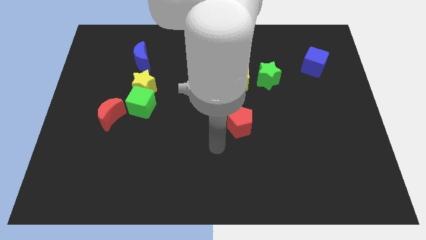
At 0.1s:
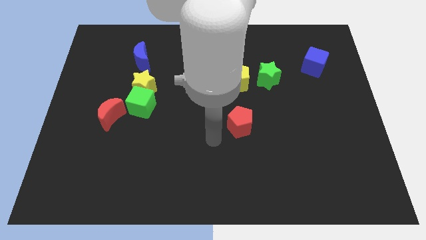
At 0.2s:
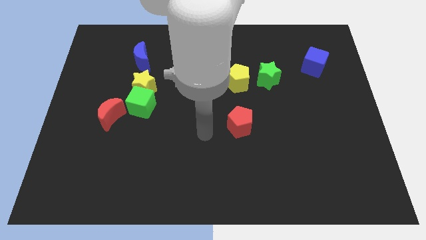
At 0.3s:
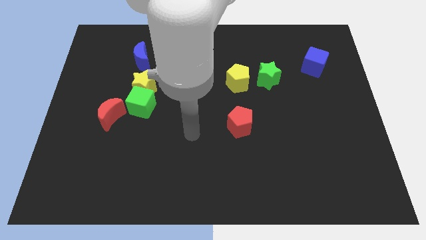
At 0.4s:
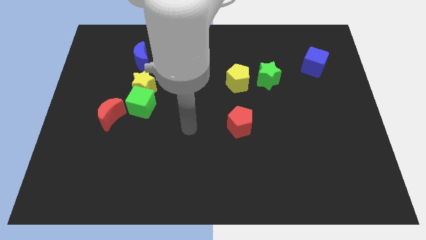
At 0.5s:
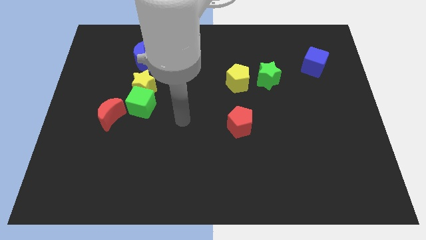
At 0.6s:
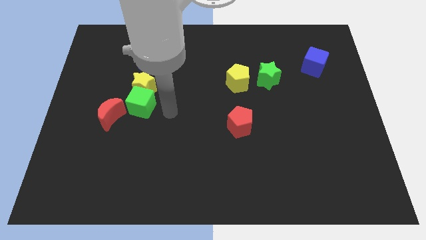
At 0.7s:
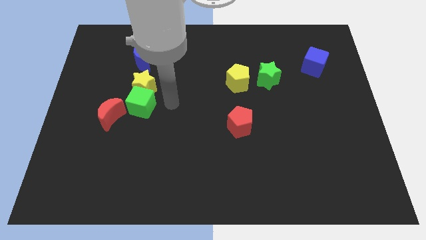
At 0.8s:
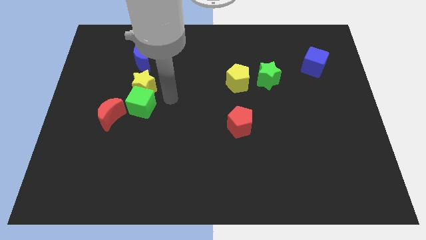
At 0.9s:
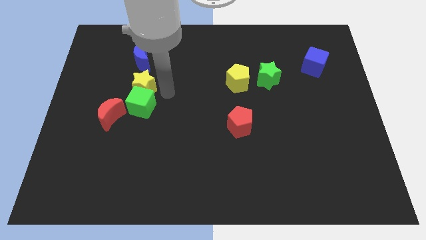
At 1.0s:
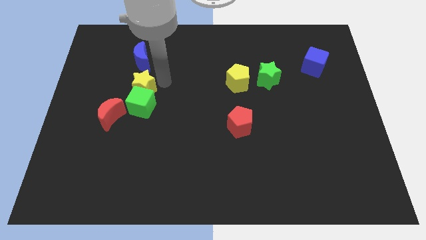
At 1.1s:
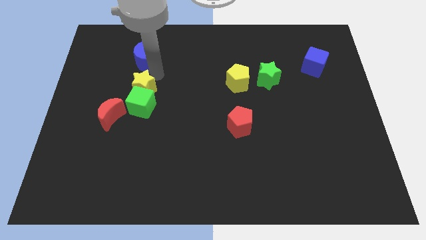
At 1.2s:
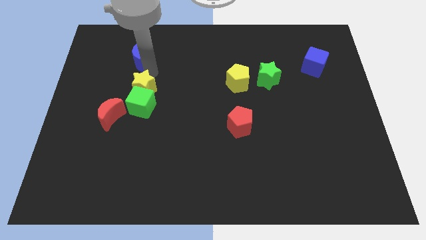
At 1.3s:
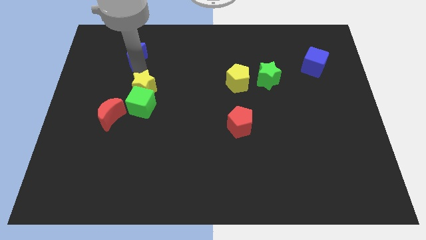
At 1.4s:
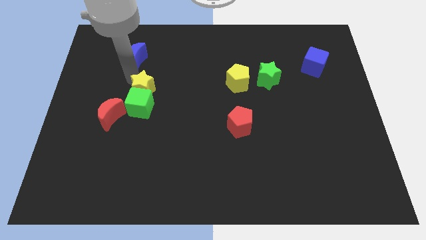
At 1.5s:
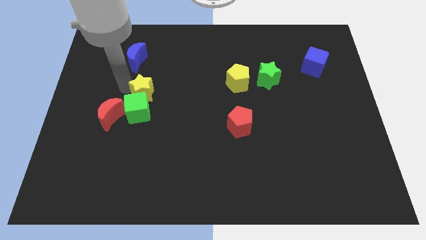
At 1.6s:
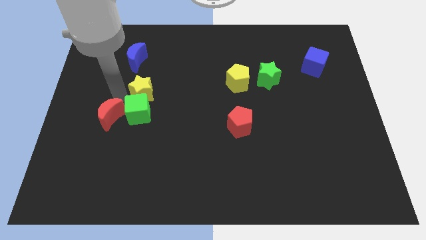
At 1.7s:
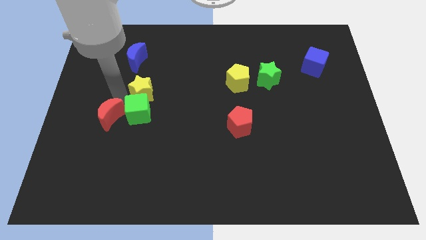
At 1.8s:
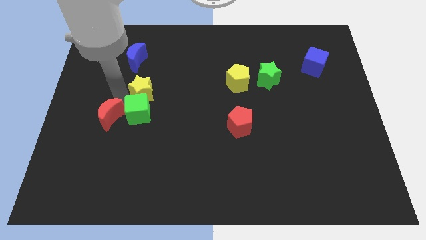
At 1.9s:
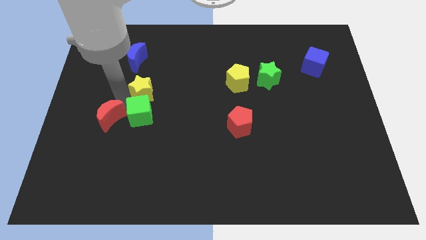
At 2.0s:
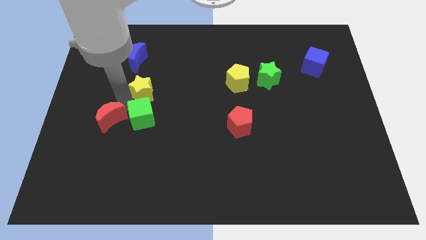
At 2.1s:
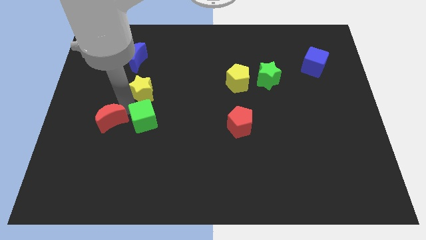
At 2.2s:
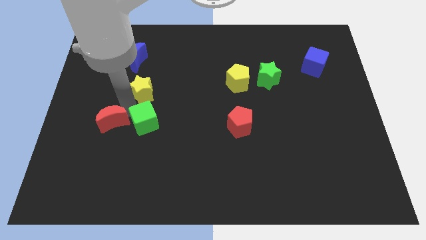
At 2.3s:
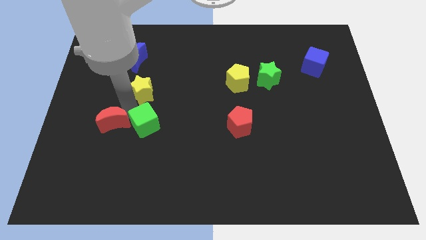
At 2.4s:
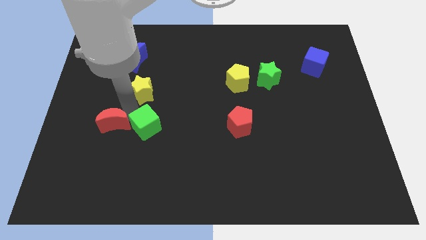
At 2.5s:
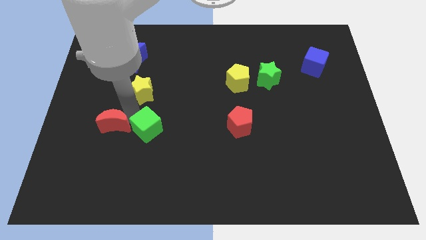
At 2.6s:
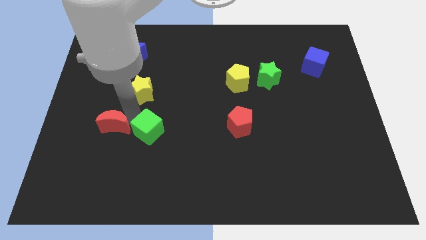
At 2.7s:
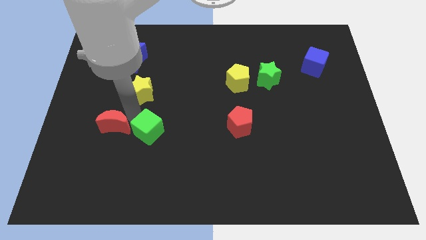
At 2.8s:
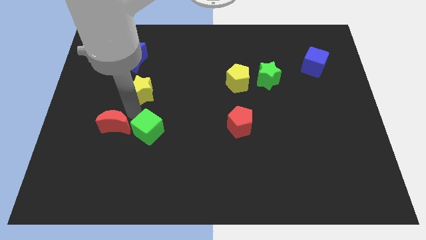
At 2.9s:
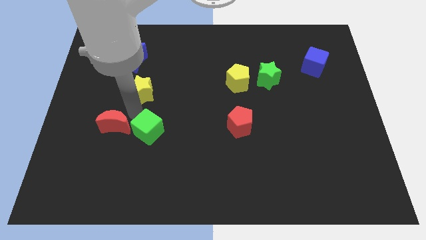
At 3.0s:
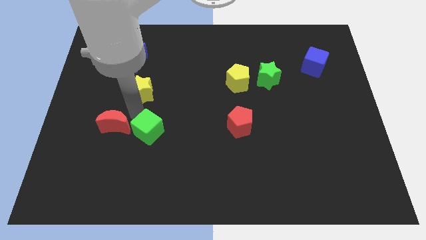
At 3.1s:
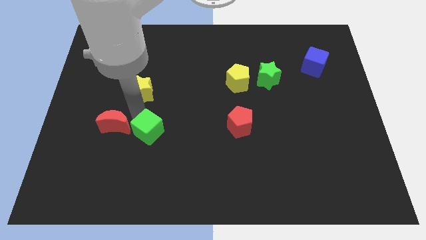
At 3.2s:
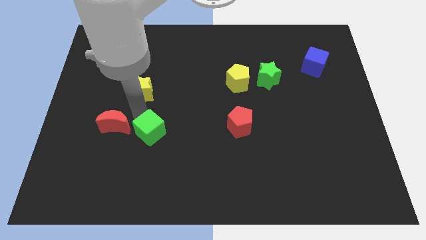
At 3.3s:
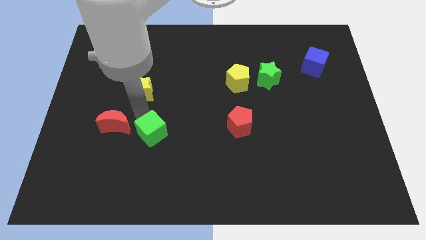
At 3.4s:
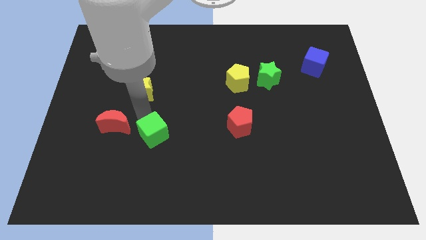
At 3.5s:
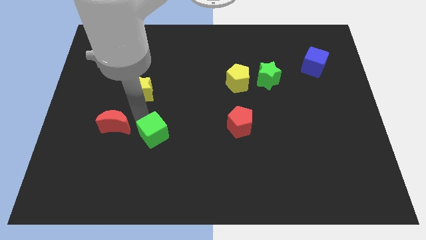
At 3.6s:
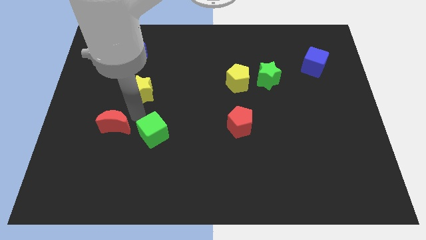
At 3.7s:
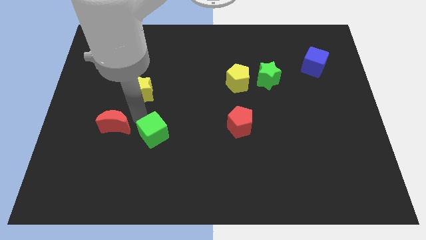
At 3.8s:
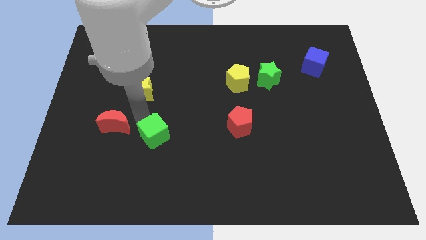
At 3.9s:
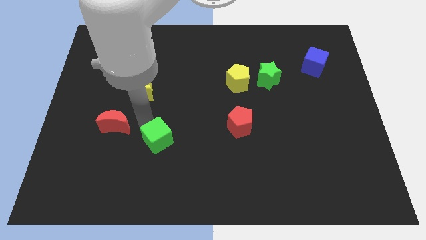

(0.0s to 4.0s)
pull the green cube apart from the yellow star and red moon

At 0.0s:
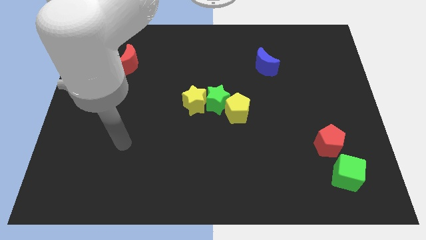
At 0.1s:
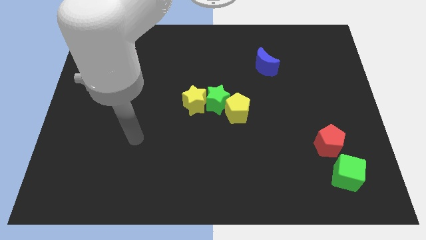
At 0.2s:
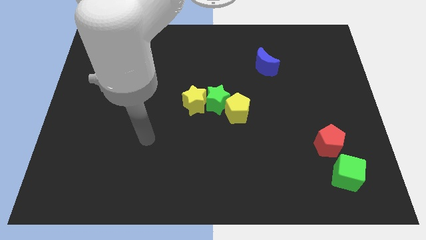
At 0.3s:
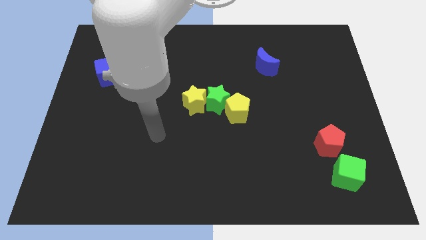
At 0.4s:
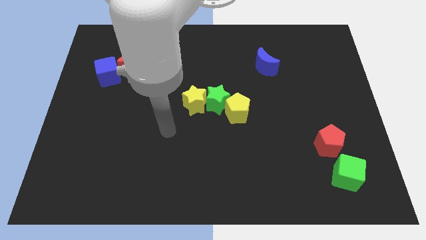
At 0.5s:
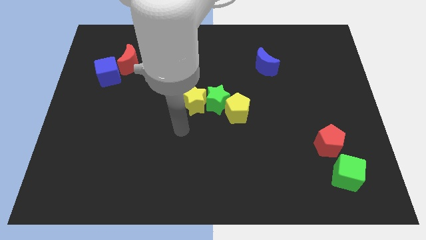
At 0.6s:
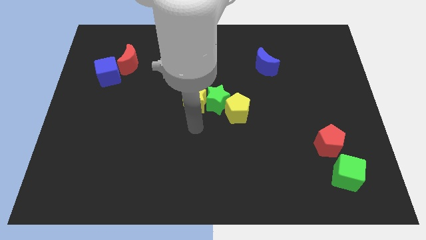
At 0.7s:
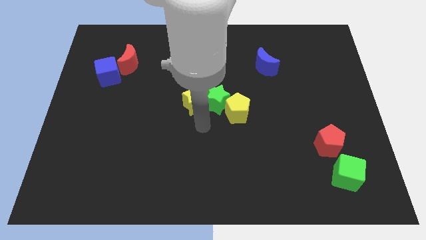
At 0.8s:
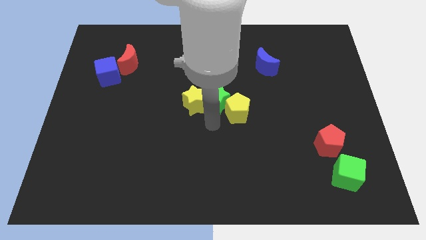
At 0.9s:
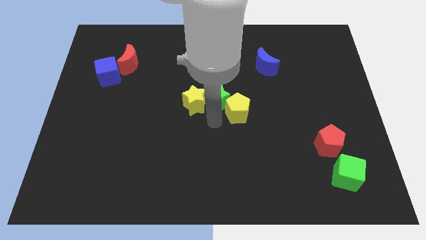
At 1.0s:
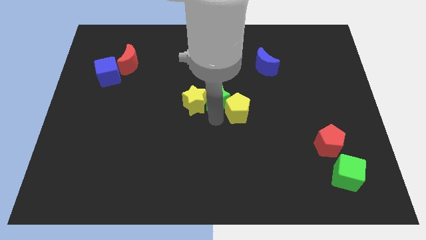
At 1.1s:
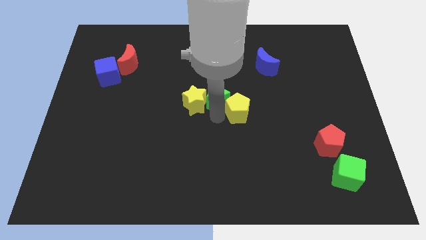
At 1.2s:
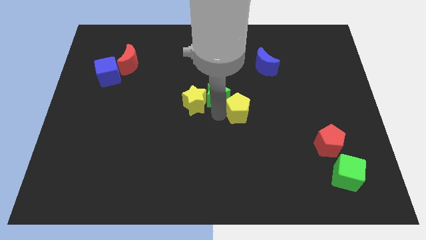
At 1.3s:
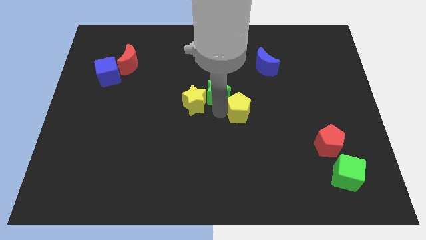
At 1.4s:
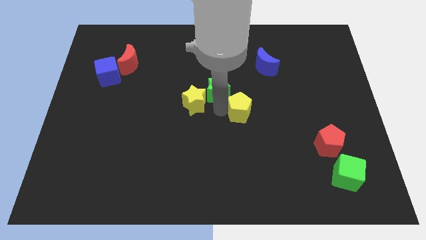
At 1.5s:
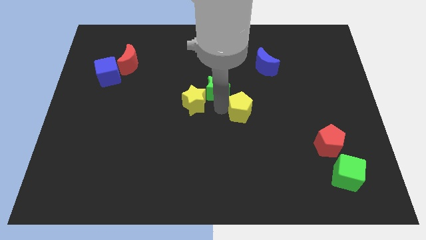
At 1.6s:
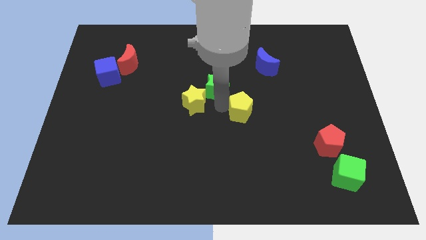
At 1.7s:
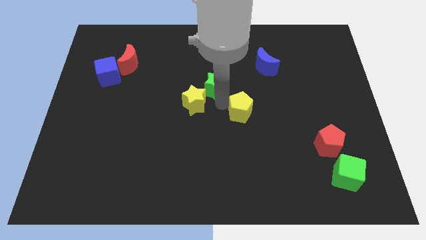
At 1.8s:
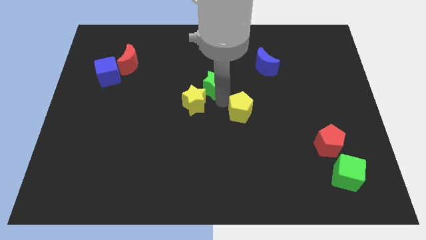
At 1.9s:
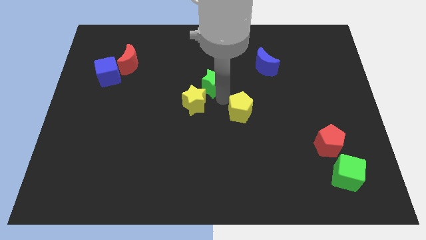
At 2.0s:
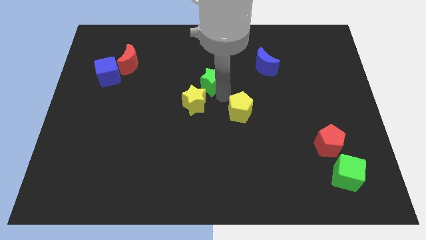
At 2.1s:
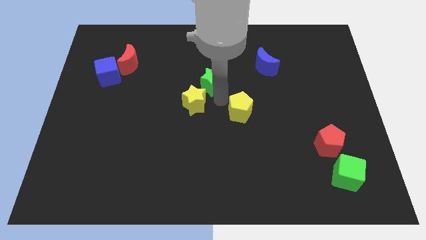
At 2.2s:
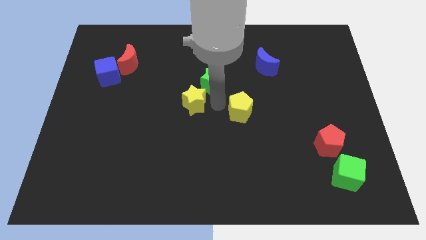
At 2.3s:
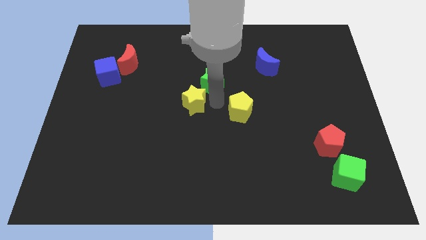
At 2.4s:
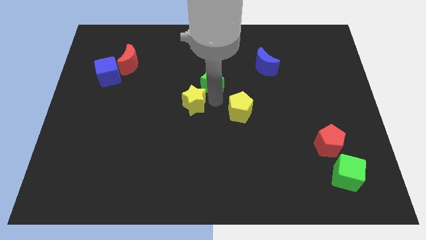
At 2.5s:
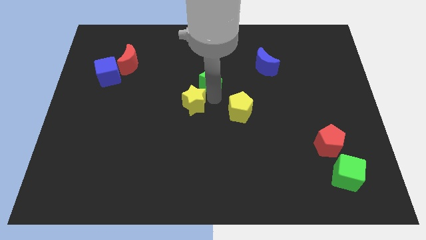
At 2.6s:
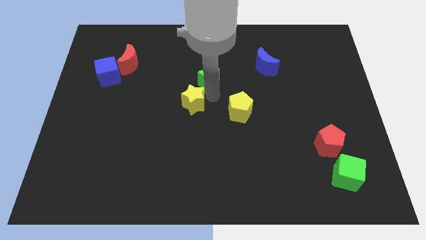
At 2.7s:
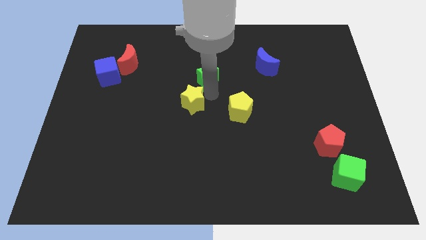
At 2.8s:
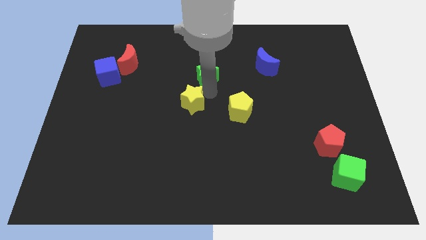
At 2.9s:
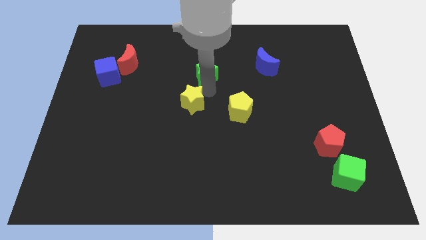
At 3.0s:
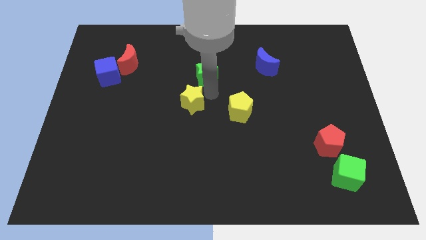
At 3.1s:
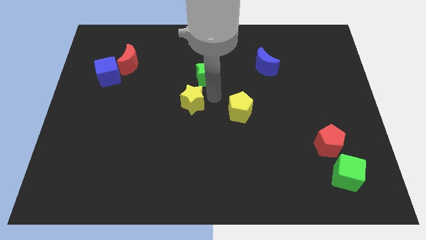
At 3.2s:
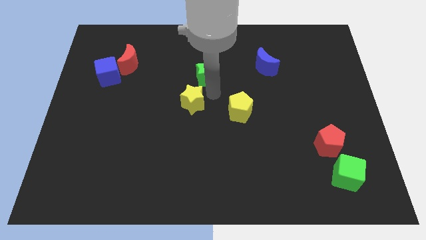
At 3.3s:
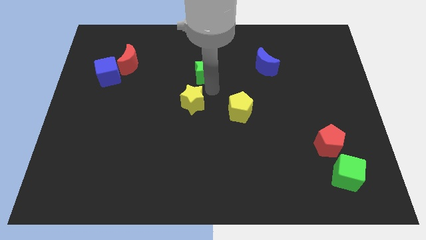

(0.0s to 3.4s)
pull the green star apart from the yellow star and yellow pentagon

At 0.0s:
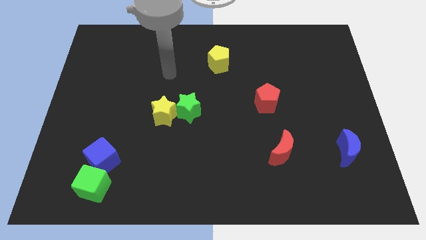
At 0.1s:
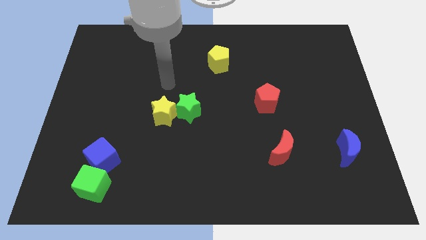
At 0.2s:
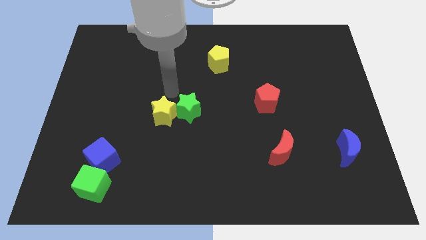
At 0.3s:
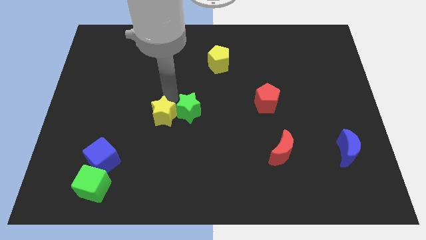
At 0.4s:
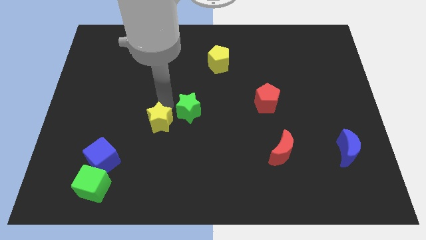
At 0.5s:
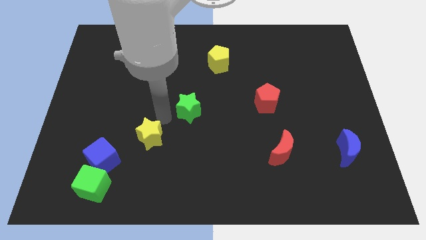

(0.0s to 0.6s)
pull the green star apart from the yellow star

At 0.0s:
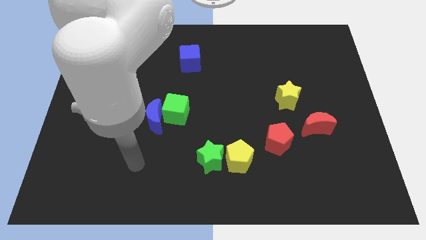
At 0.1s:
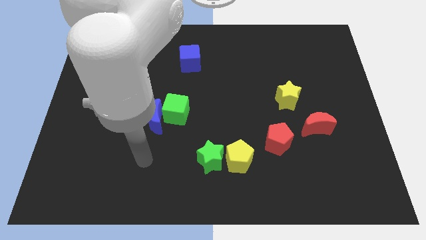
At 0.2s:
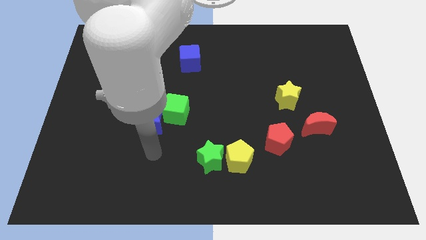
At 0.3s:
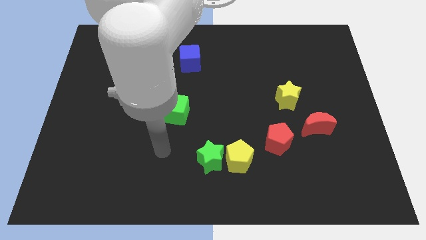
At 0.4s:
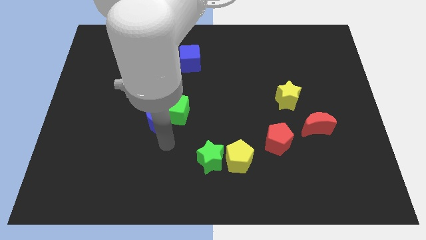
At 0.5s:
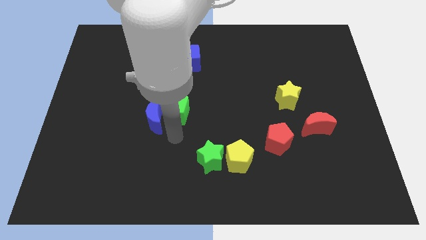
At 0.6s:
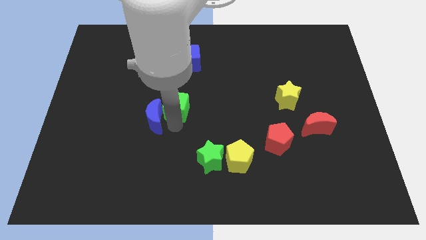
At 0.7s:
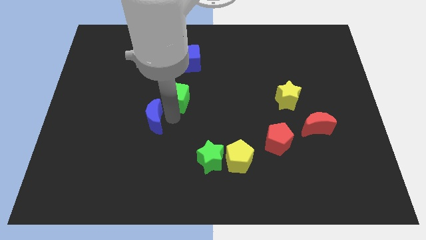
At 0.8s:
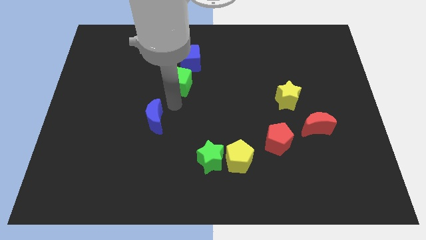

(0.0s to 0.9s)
separate the blue moon from the green cube

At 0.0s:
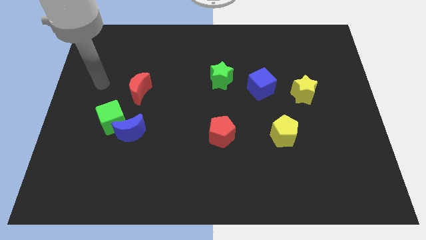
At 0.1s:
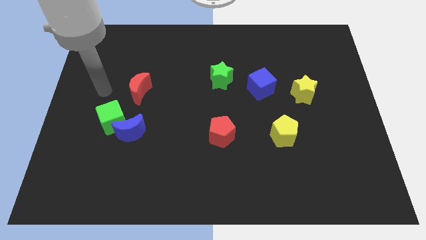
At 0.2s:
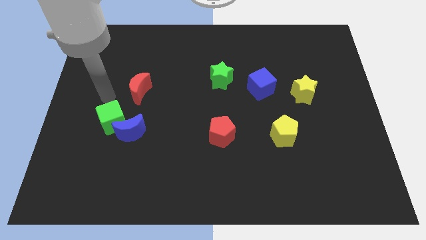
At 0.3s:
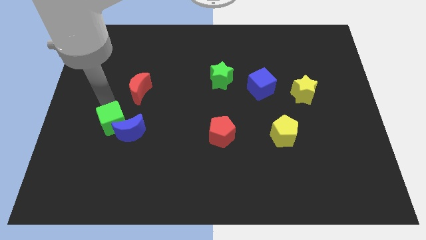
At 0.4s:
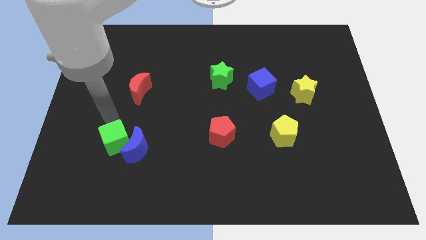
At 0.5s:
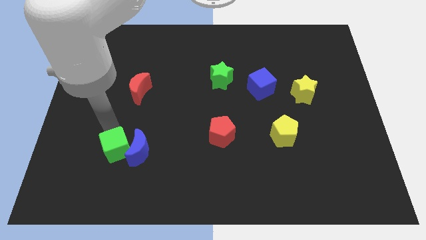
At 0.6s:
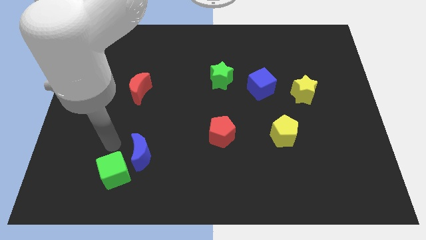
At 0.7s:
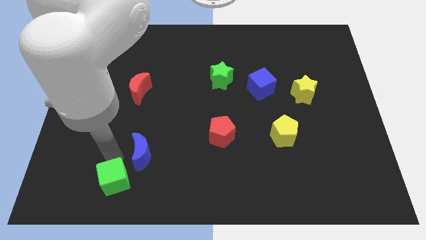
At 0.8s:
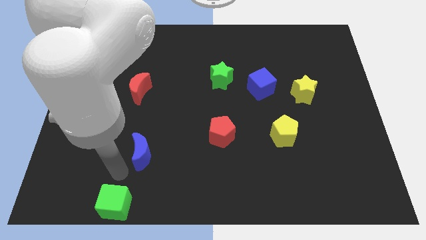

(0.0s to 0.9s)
move the blue moon away from the green cube
